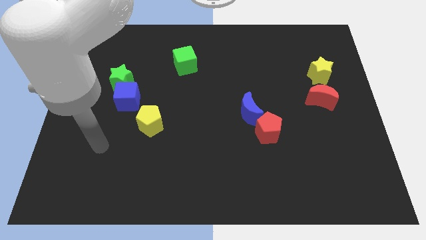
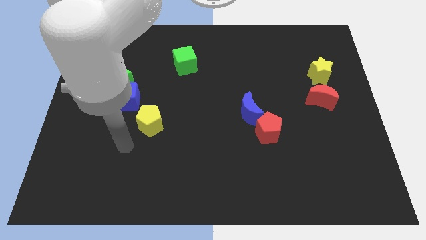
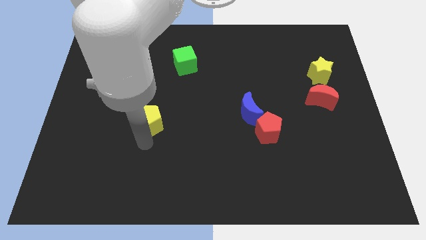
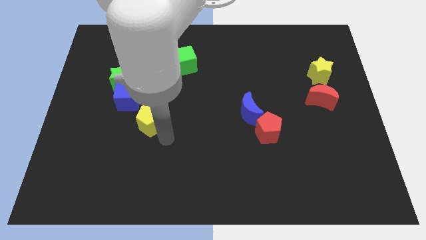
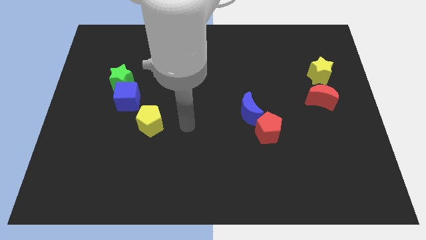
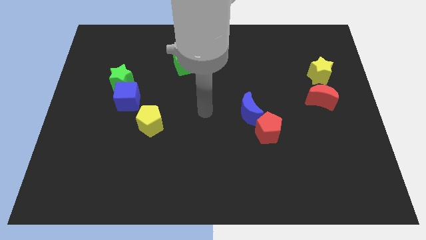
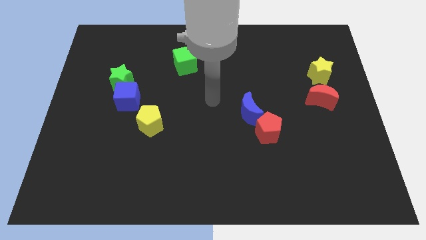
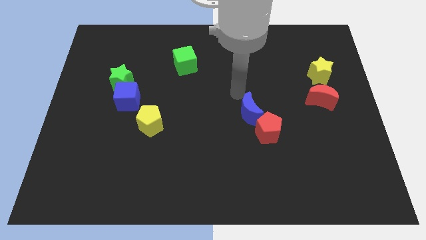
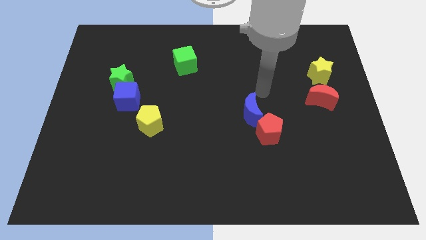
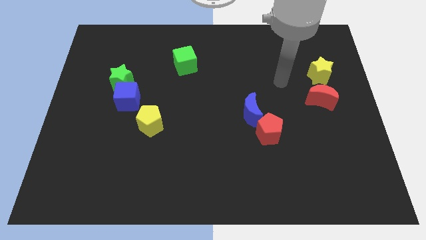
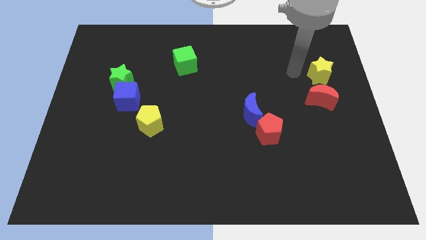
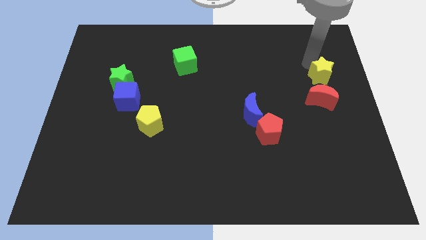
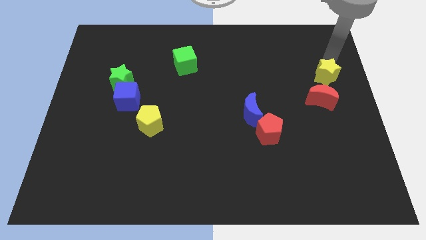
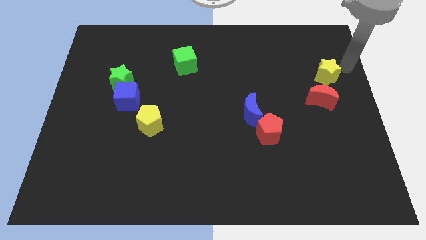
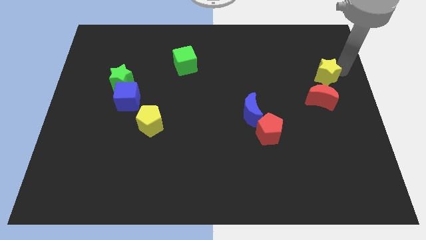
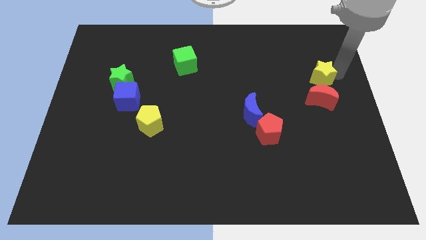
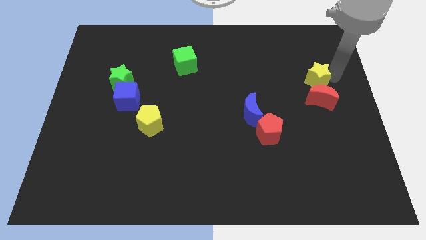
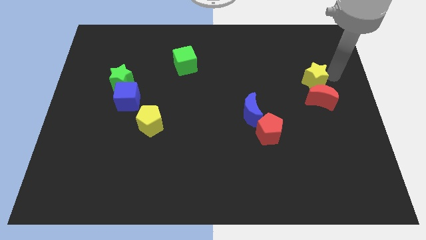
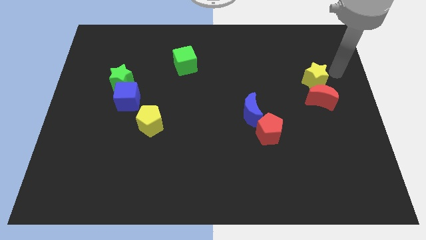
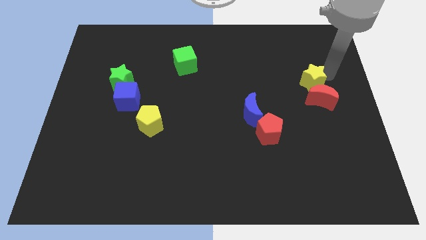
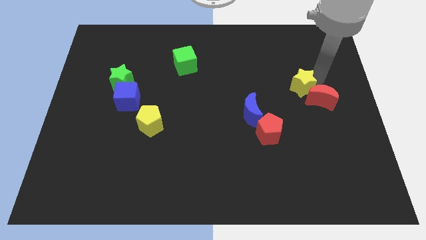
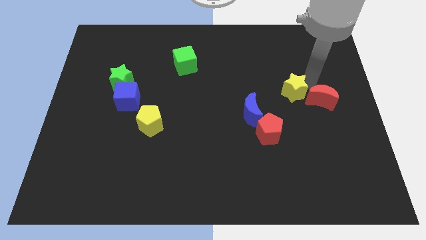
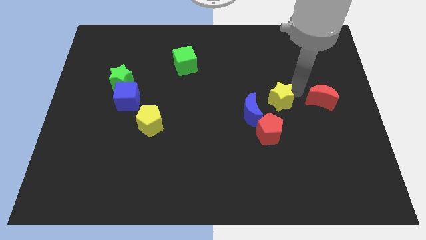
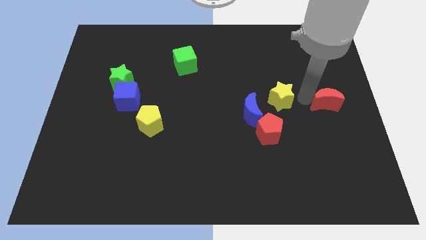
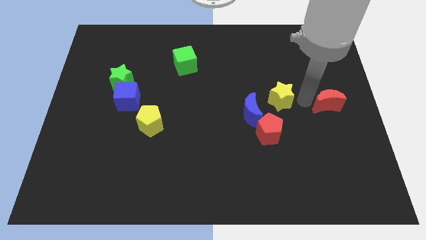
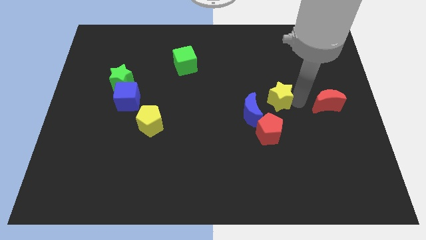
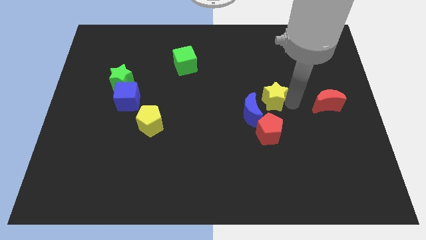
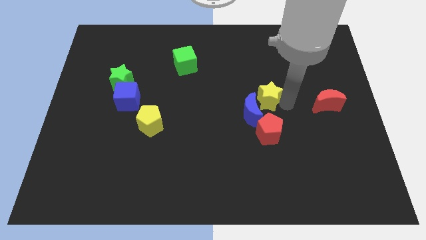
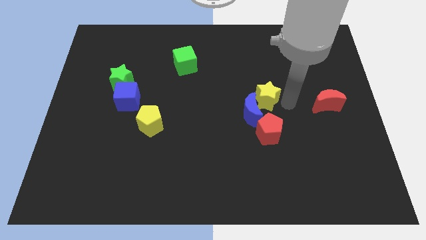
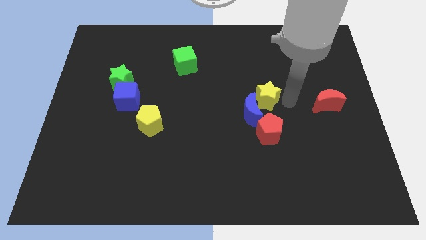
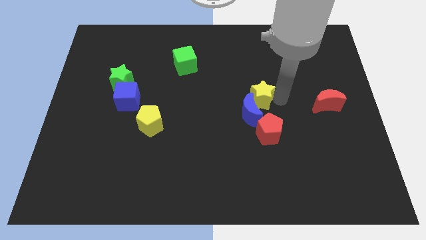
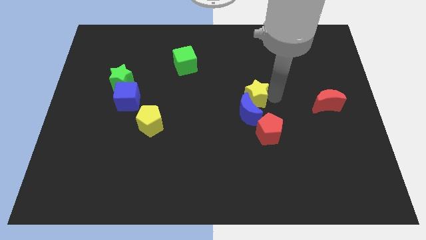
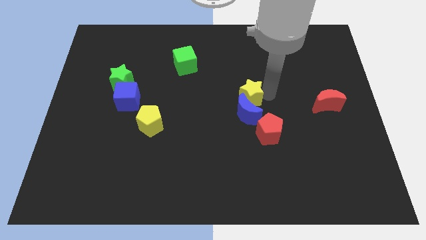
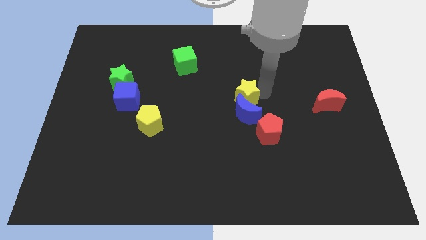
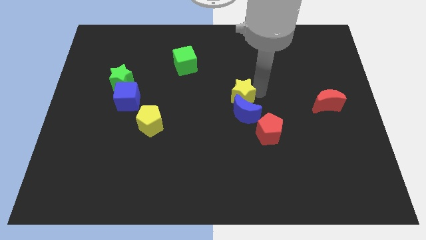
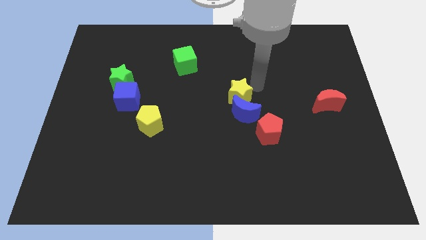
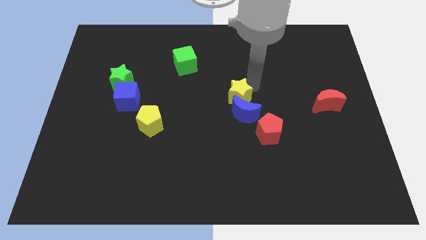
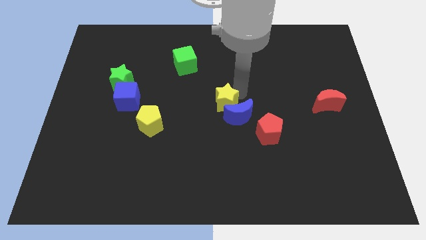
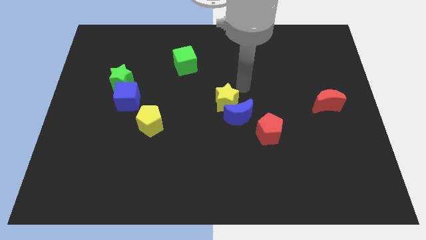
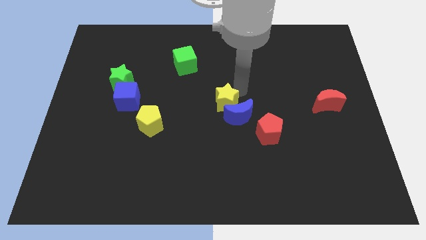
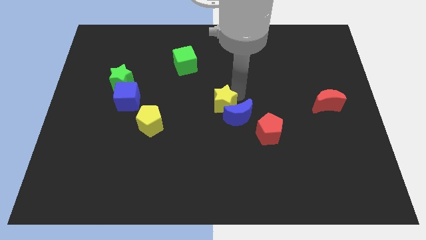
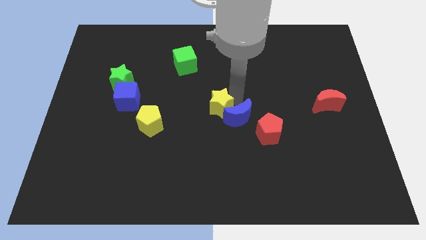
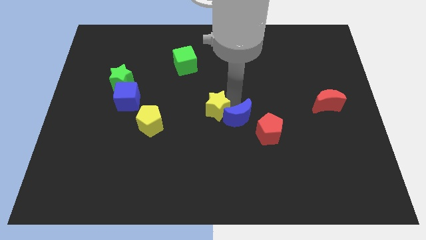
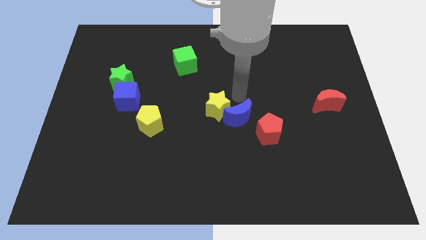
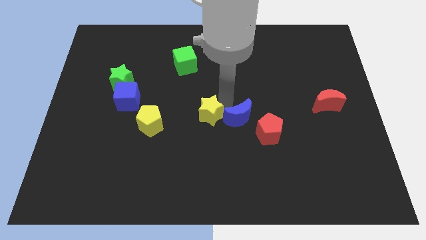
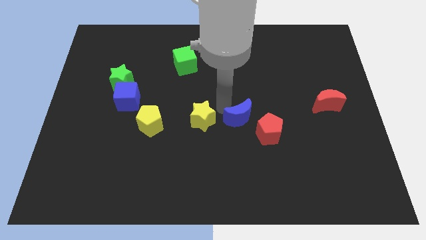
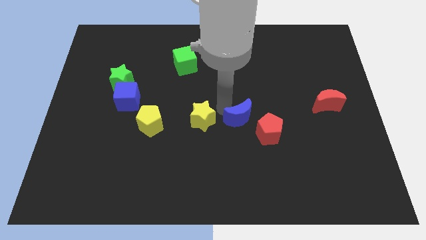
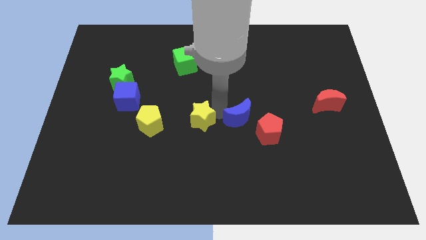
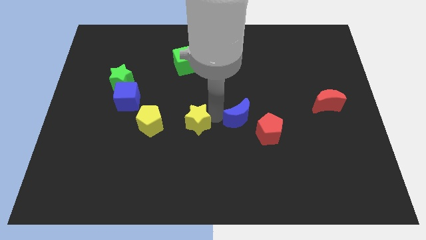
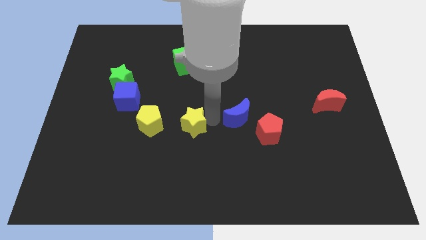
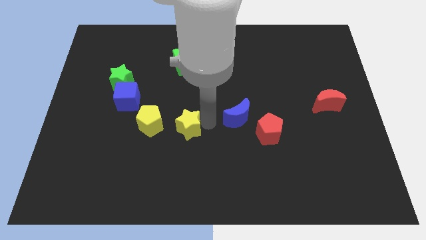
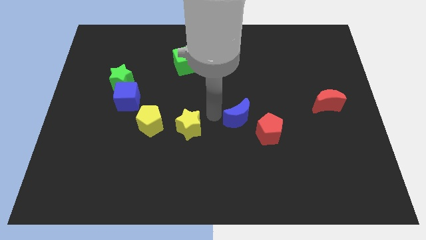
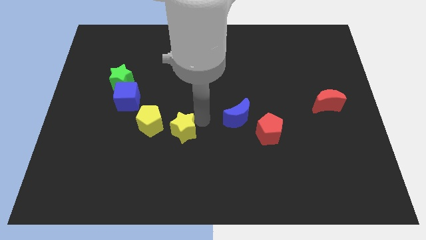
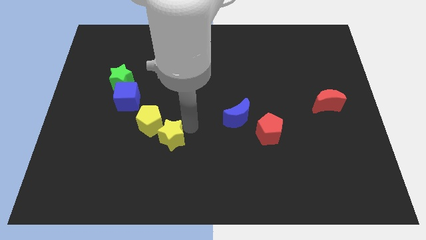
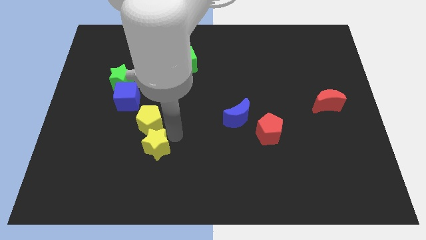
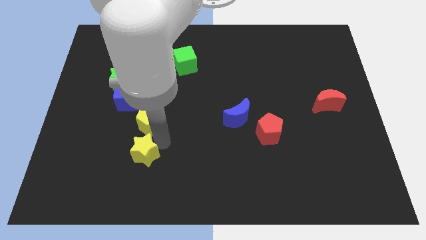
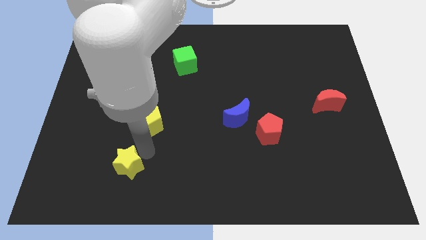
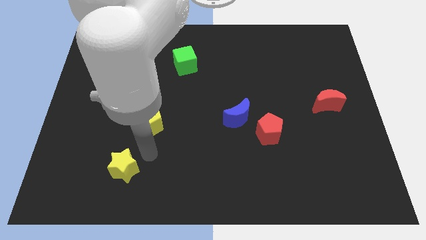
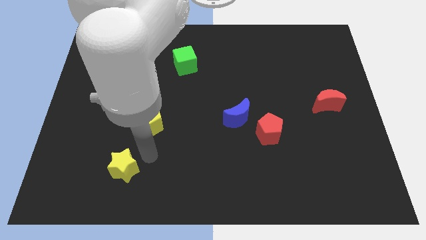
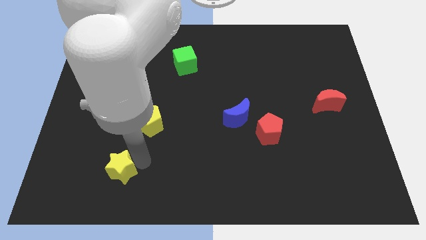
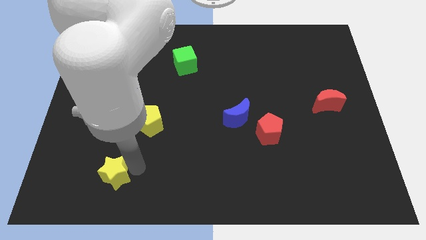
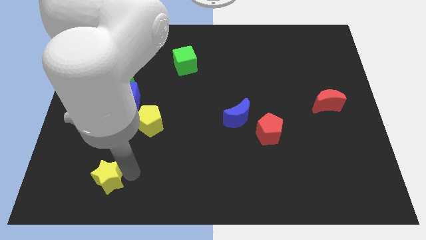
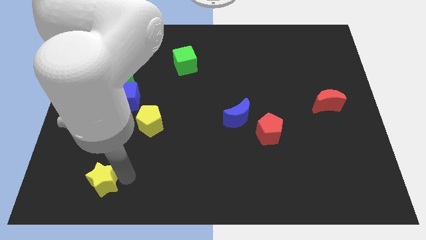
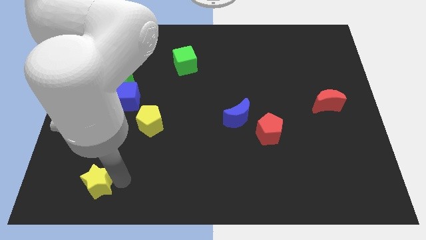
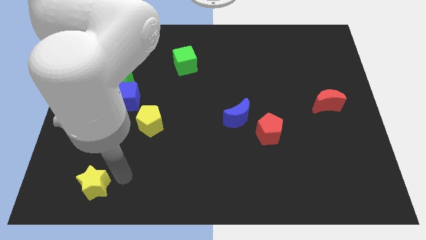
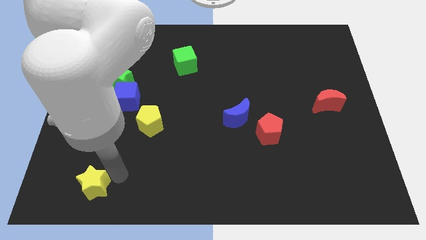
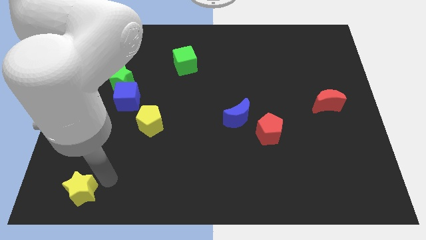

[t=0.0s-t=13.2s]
put the yellow star to the bottom left corner

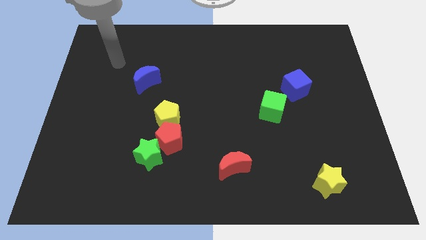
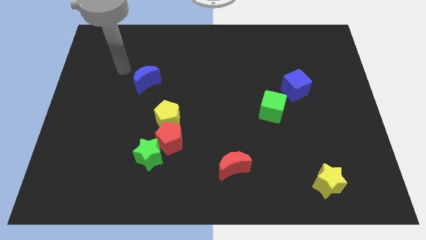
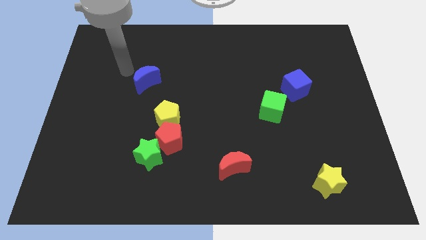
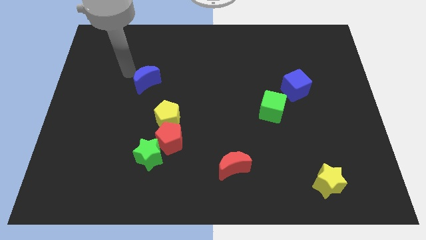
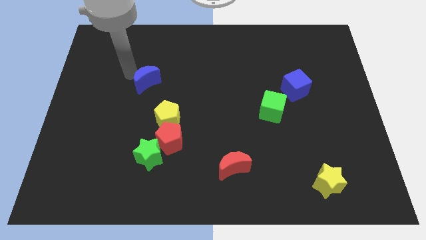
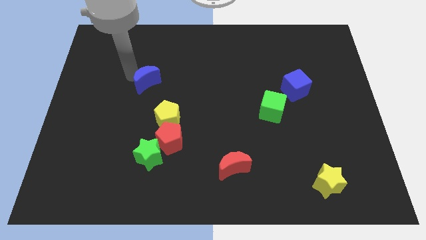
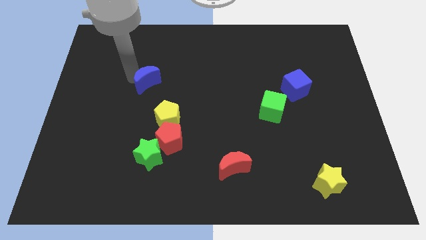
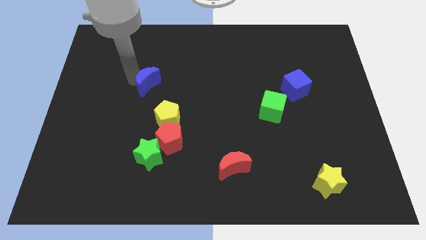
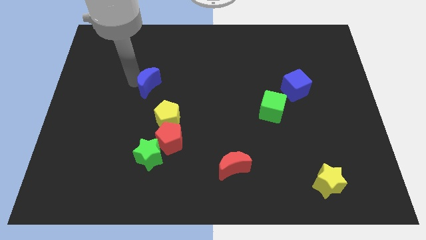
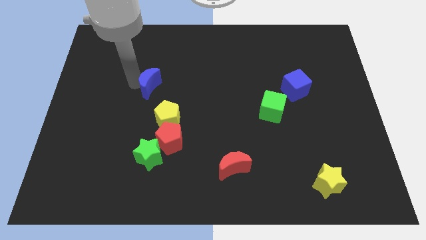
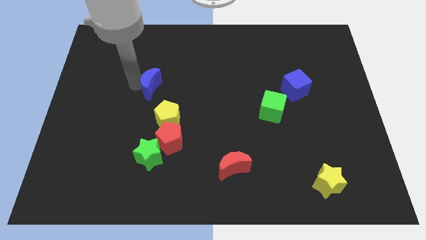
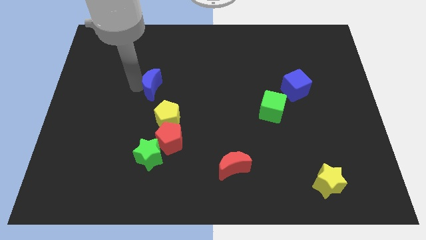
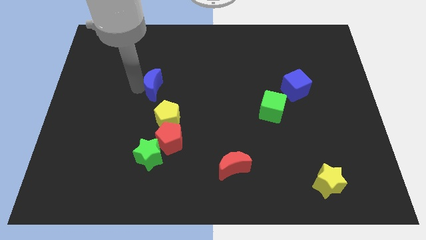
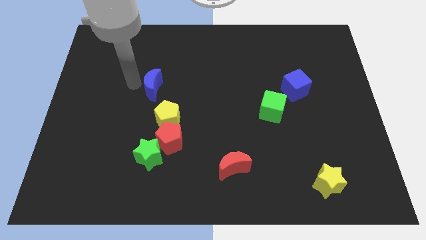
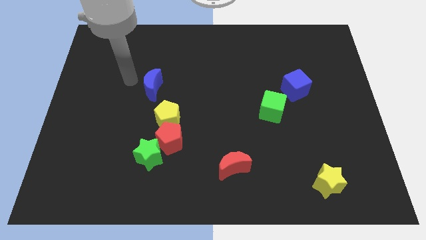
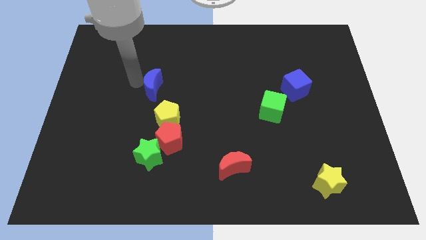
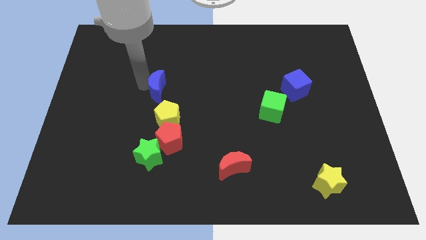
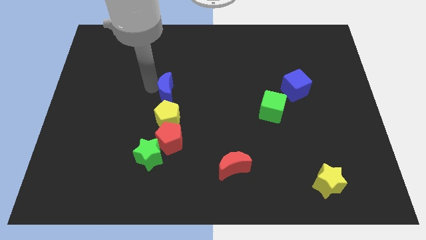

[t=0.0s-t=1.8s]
slide the blue moon to the middle of the board
